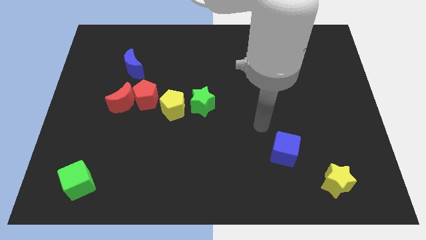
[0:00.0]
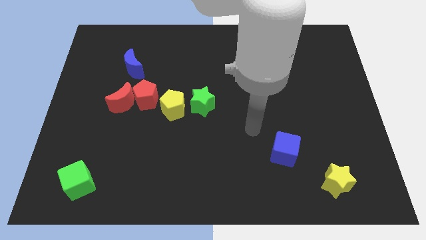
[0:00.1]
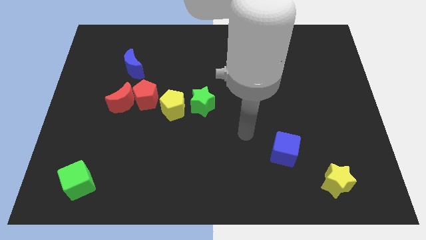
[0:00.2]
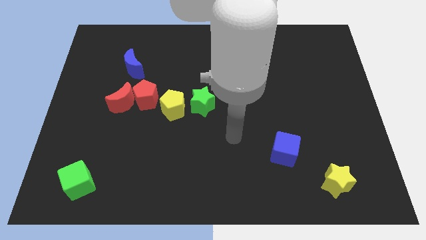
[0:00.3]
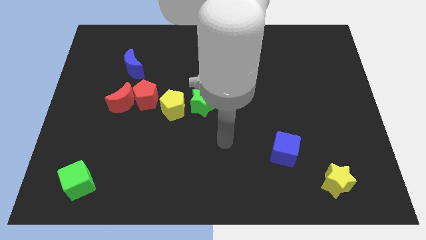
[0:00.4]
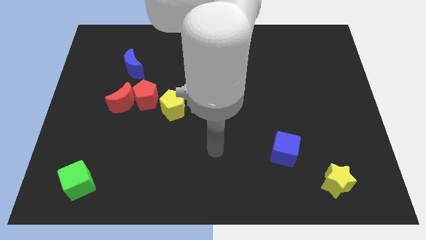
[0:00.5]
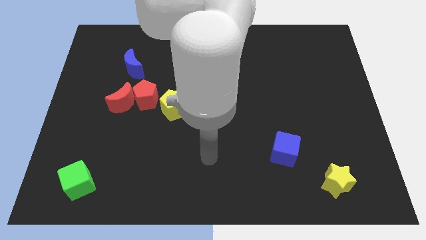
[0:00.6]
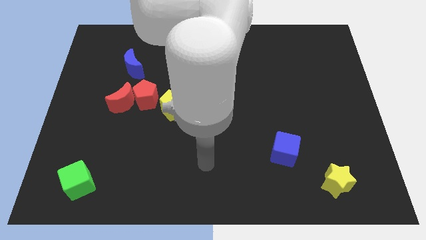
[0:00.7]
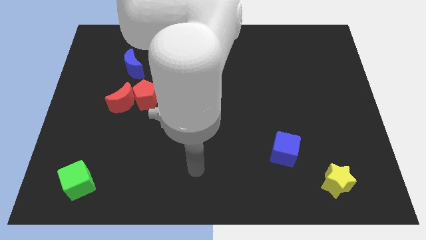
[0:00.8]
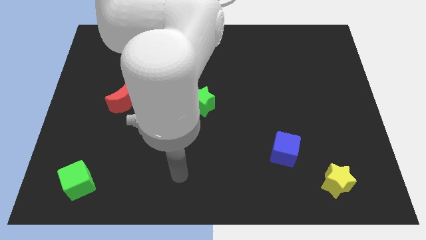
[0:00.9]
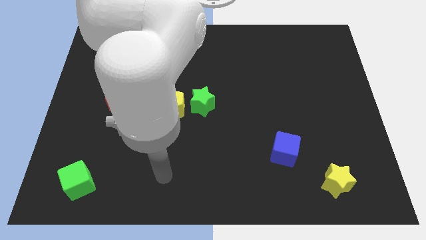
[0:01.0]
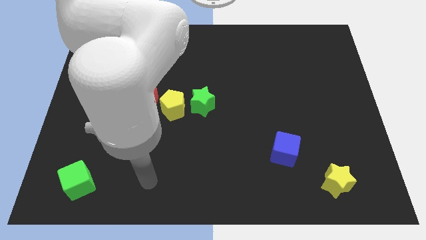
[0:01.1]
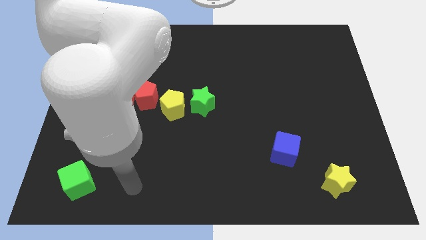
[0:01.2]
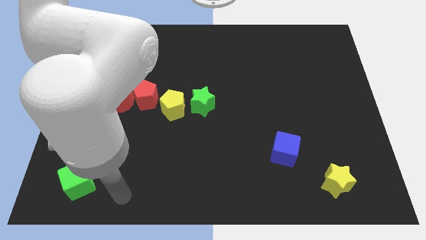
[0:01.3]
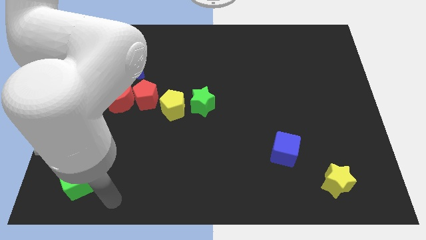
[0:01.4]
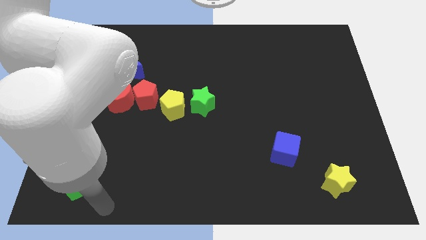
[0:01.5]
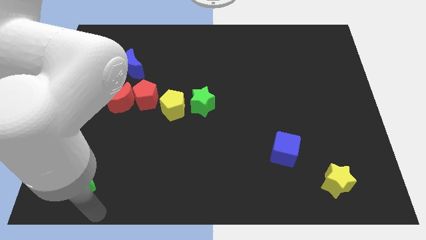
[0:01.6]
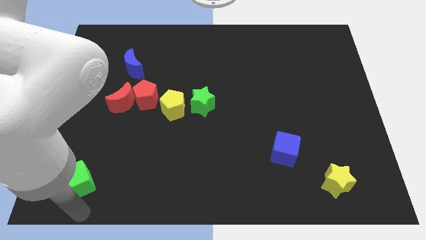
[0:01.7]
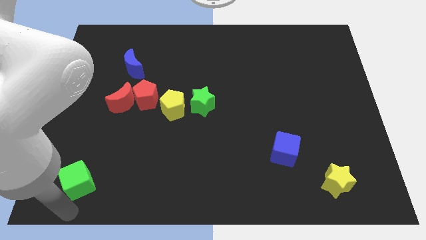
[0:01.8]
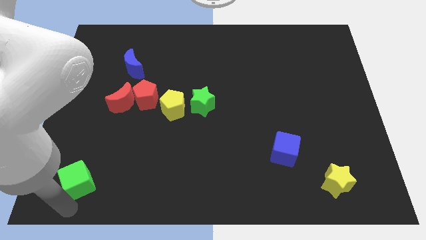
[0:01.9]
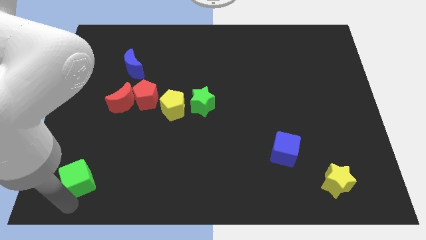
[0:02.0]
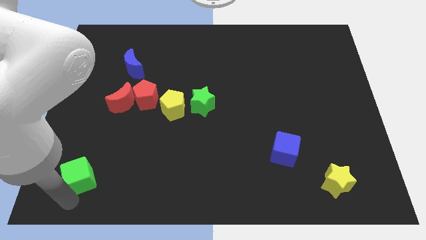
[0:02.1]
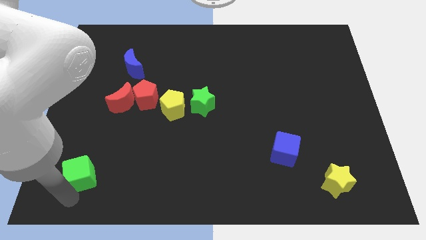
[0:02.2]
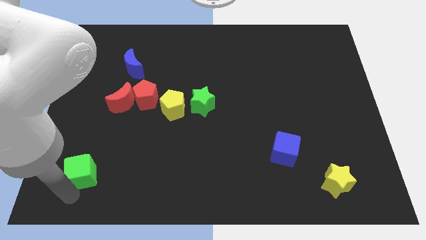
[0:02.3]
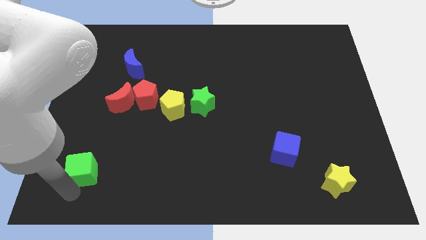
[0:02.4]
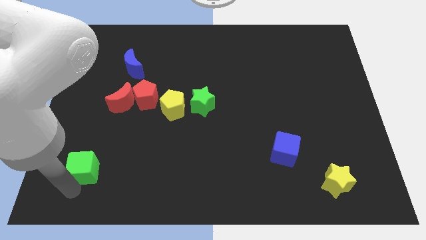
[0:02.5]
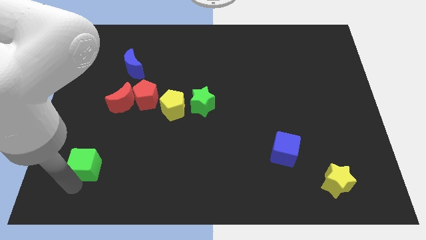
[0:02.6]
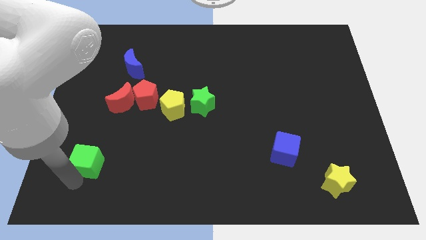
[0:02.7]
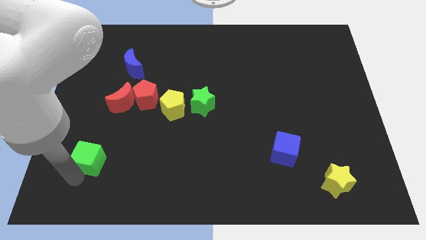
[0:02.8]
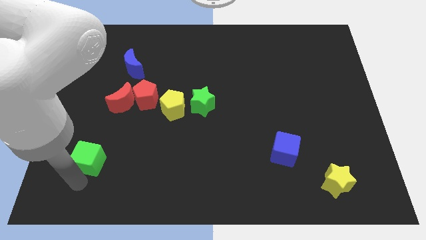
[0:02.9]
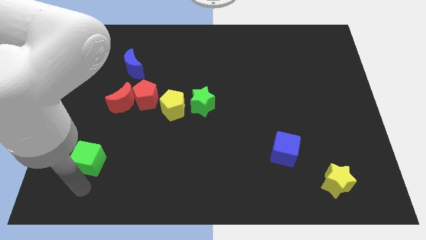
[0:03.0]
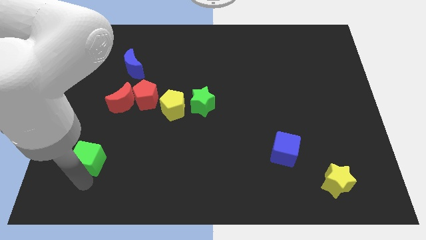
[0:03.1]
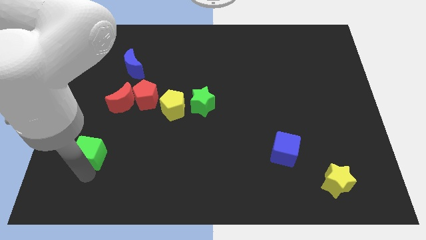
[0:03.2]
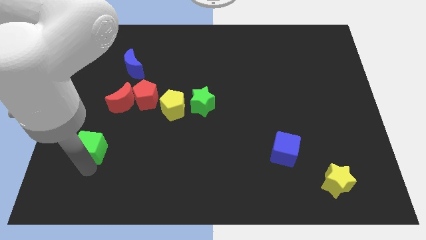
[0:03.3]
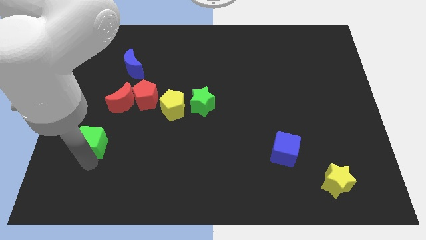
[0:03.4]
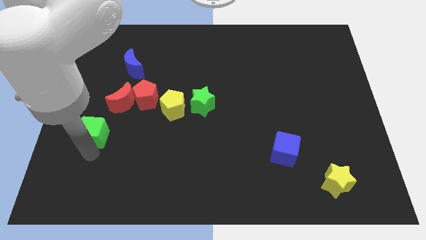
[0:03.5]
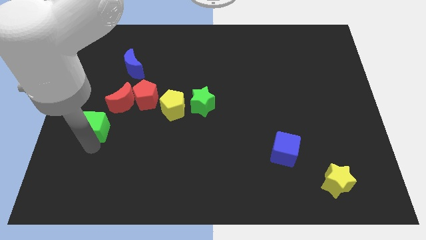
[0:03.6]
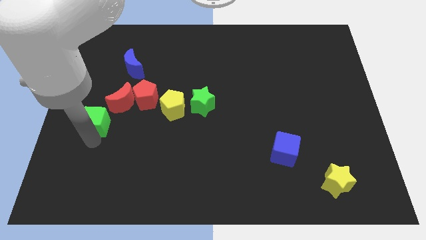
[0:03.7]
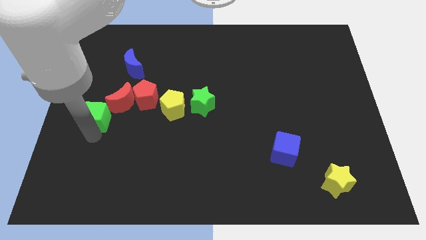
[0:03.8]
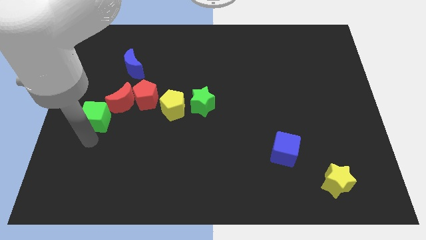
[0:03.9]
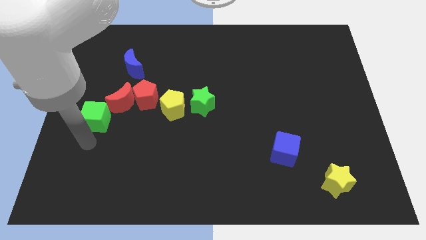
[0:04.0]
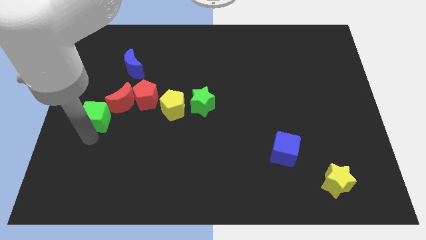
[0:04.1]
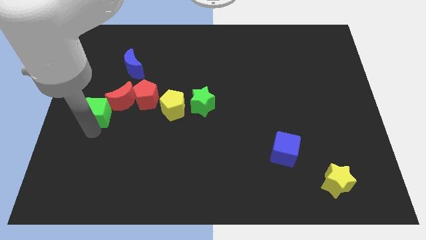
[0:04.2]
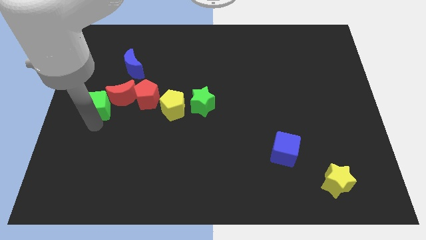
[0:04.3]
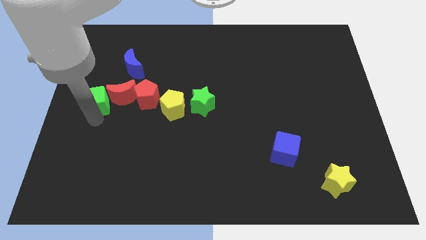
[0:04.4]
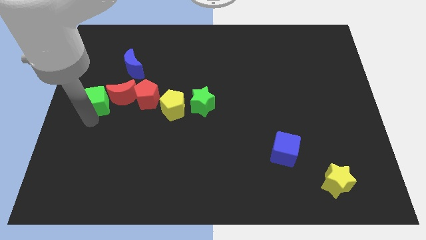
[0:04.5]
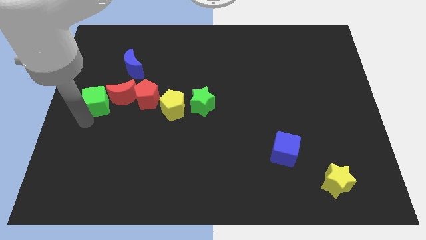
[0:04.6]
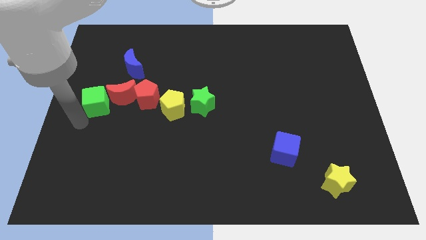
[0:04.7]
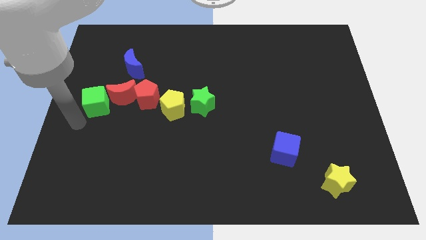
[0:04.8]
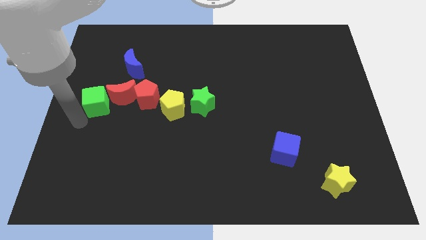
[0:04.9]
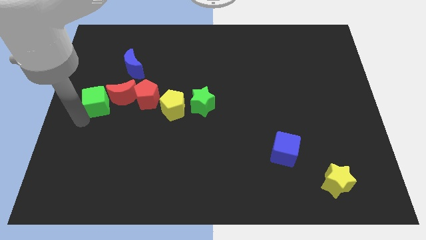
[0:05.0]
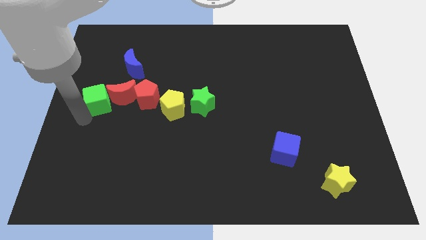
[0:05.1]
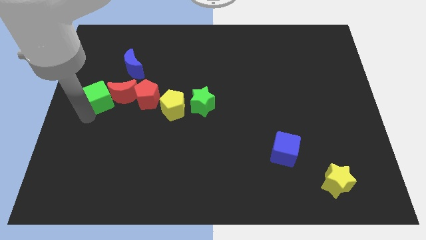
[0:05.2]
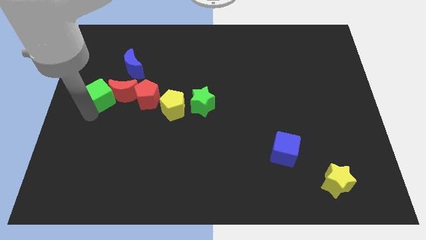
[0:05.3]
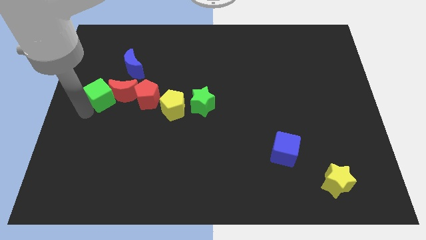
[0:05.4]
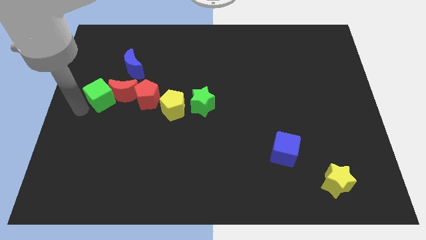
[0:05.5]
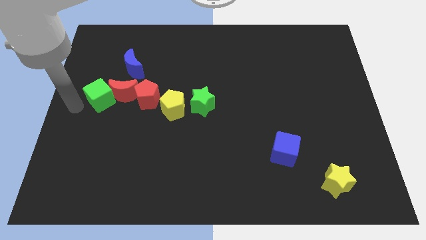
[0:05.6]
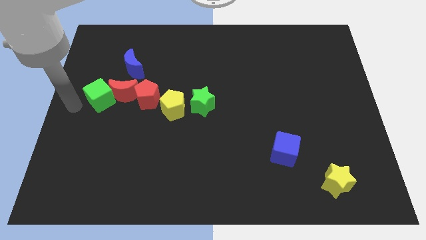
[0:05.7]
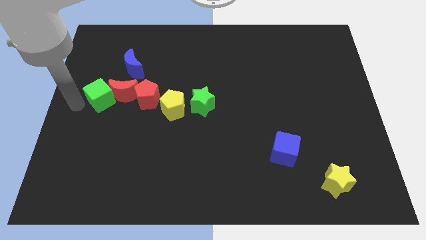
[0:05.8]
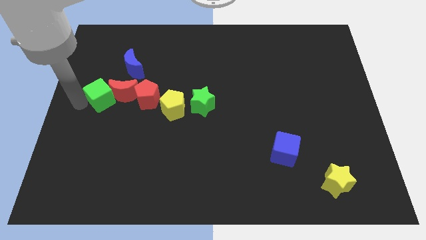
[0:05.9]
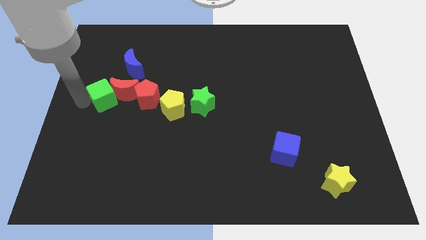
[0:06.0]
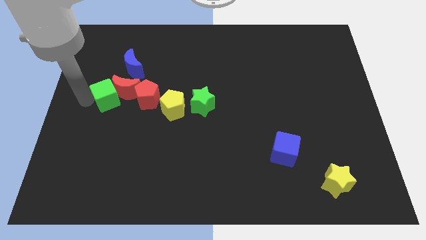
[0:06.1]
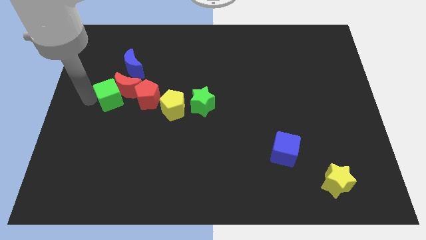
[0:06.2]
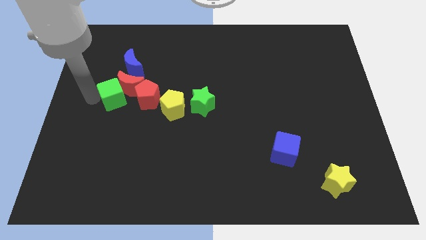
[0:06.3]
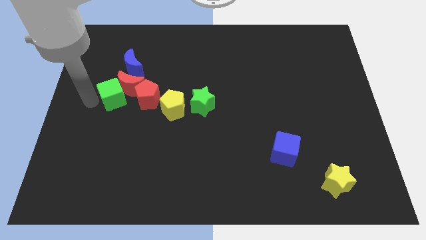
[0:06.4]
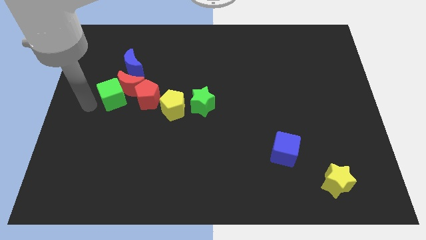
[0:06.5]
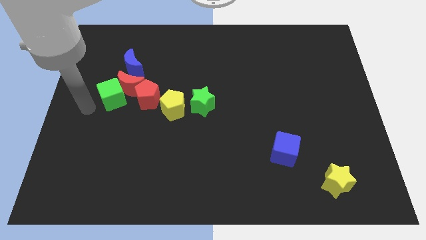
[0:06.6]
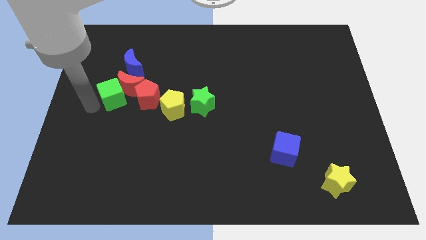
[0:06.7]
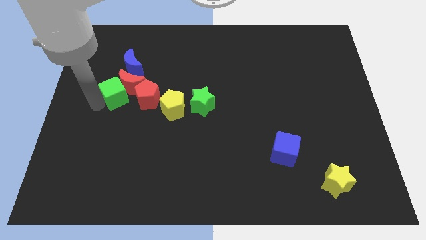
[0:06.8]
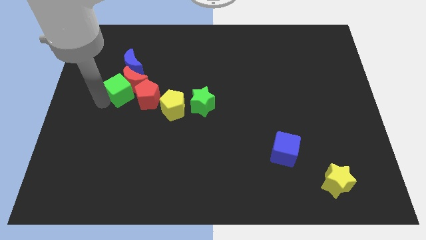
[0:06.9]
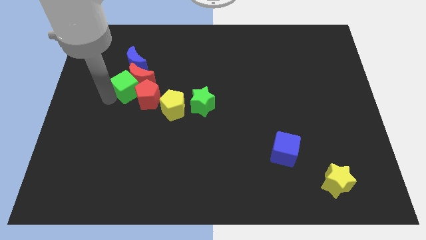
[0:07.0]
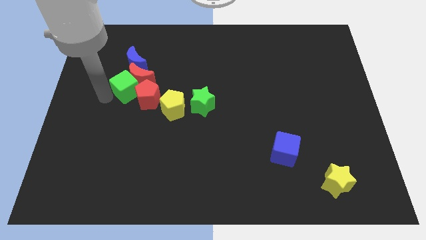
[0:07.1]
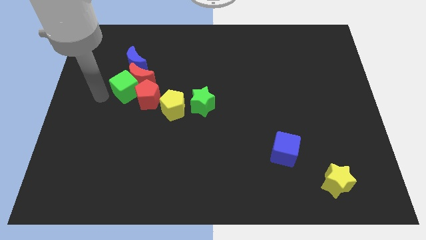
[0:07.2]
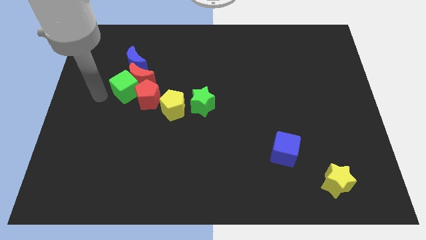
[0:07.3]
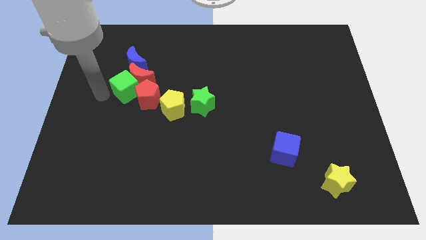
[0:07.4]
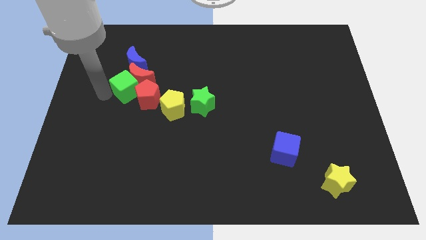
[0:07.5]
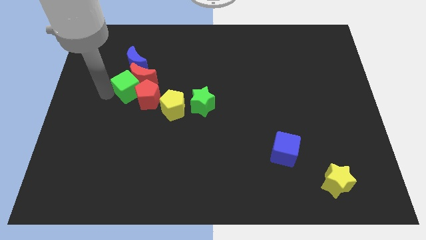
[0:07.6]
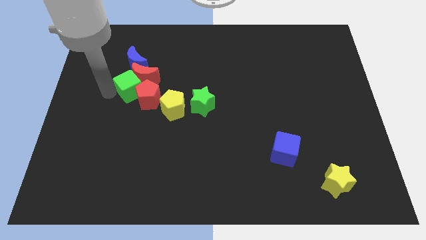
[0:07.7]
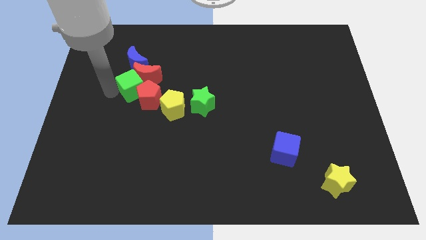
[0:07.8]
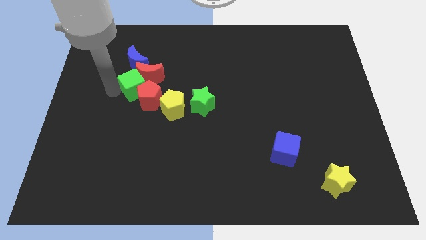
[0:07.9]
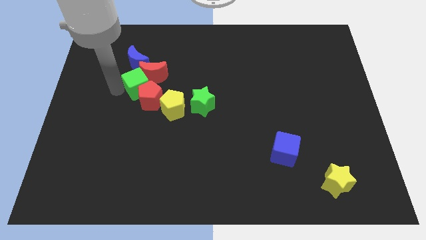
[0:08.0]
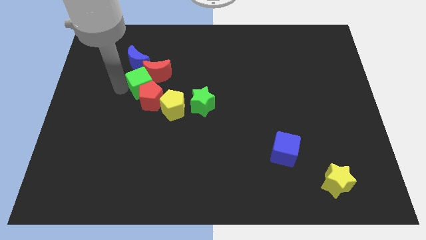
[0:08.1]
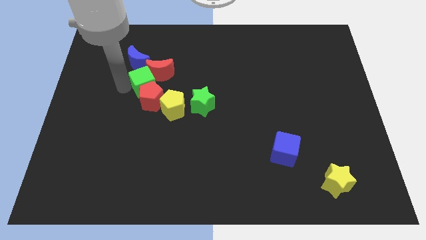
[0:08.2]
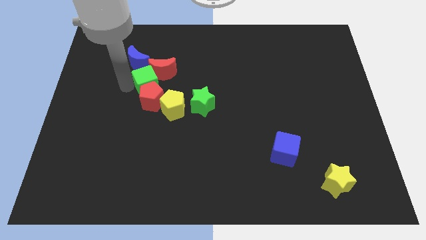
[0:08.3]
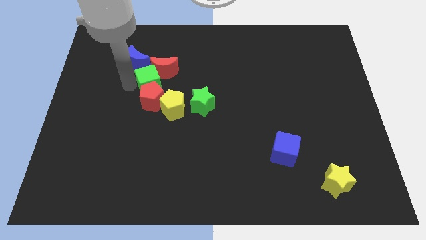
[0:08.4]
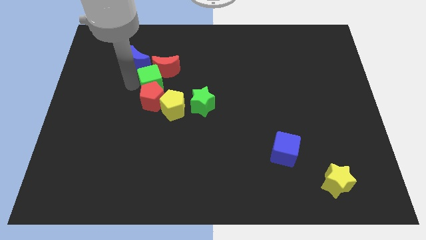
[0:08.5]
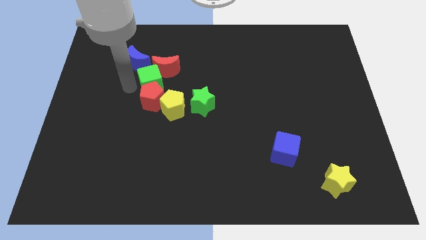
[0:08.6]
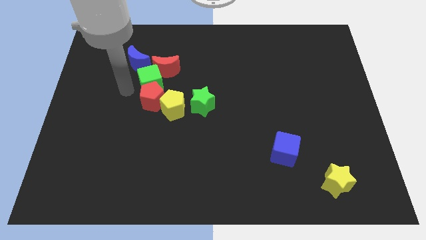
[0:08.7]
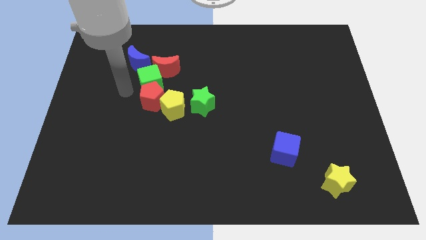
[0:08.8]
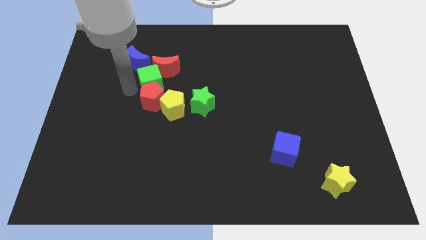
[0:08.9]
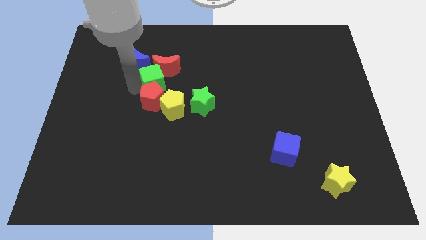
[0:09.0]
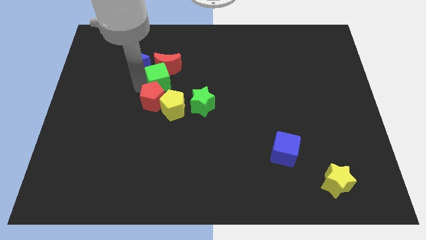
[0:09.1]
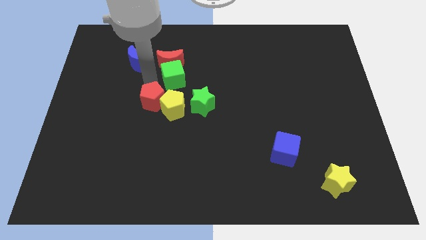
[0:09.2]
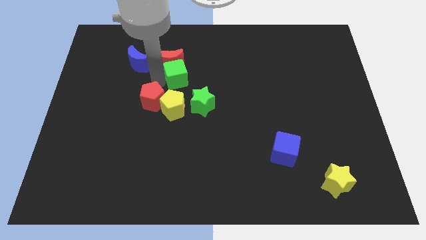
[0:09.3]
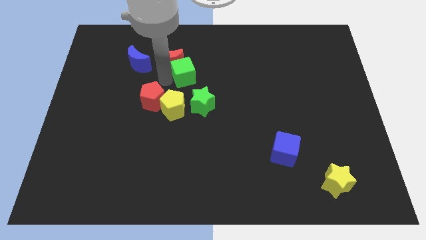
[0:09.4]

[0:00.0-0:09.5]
put the green cube to the top side of the green star
